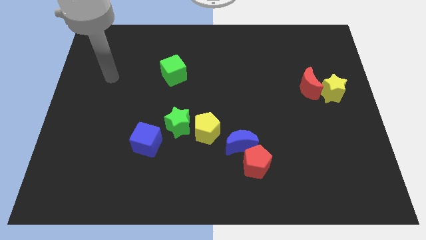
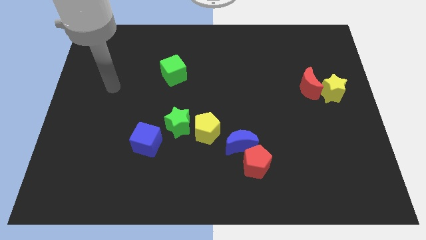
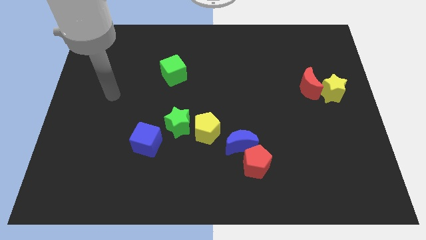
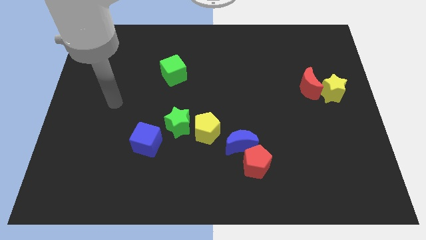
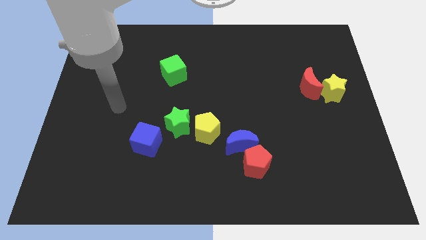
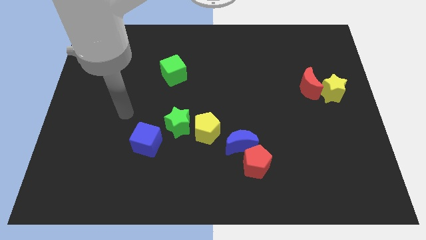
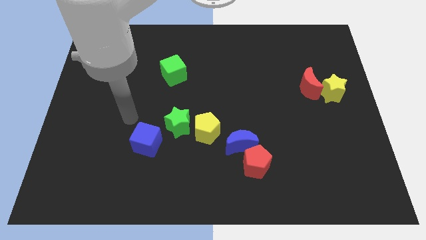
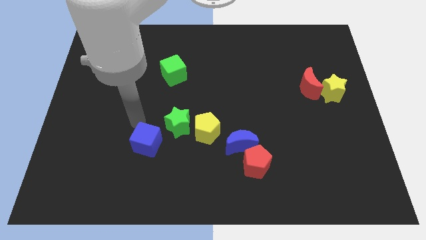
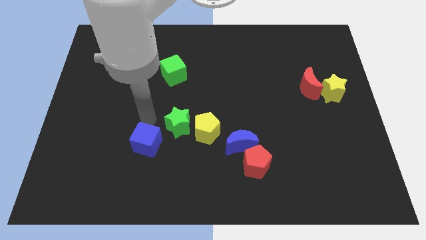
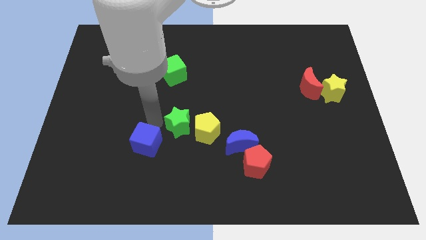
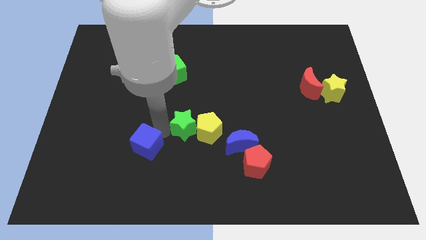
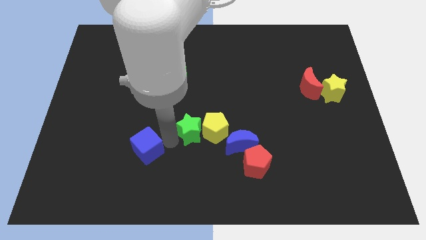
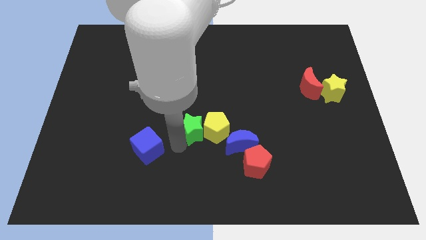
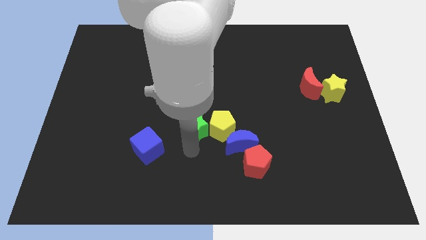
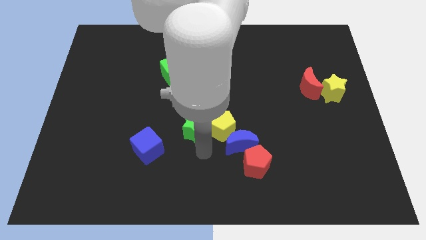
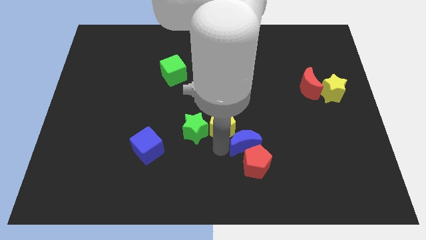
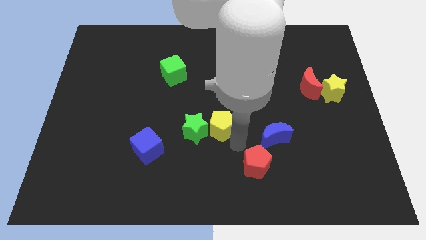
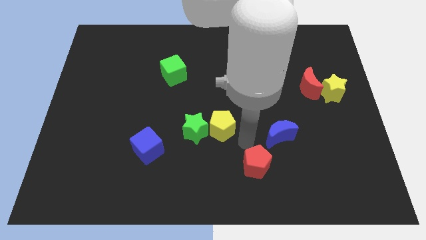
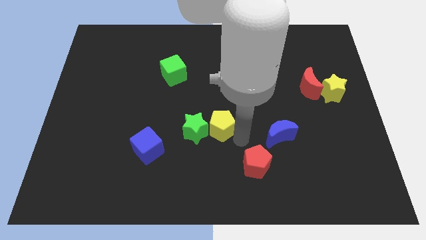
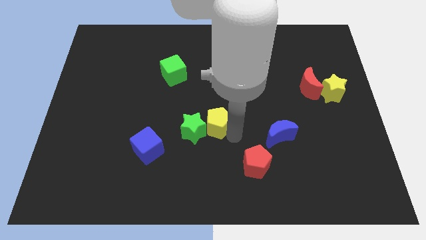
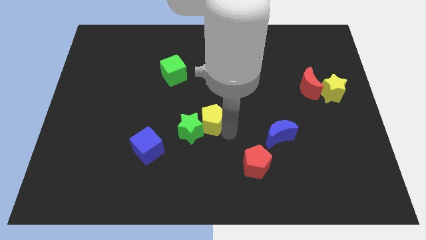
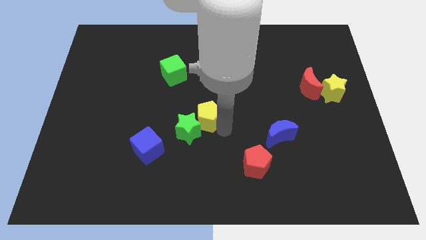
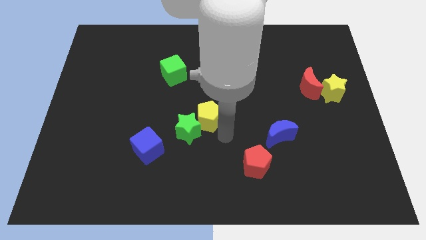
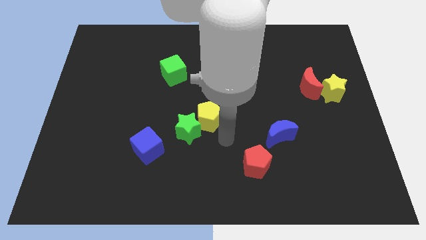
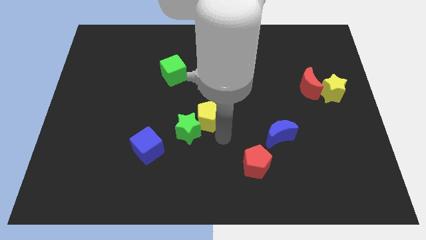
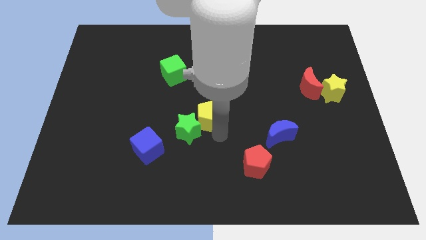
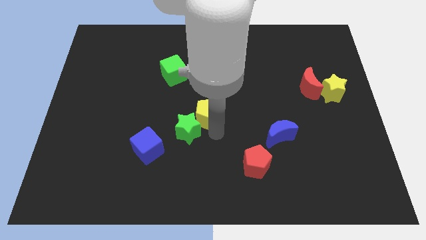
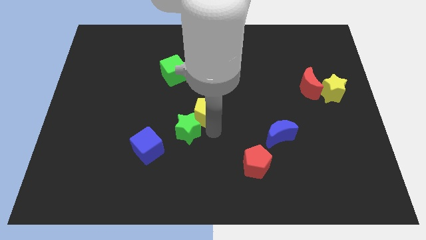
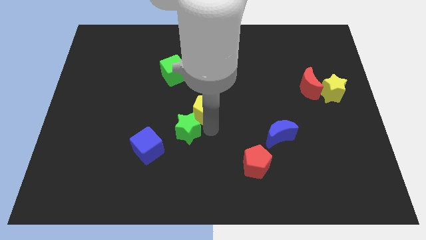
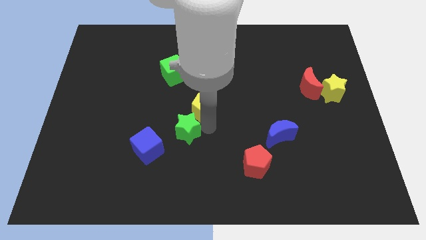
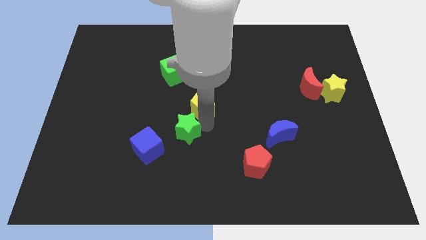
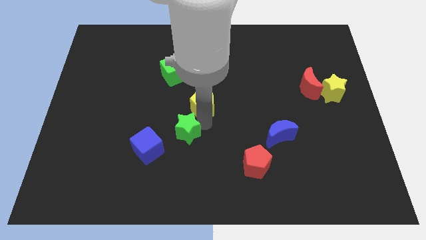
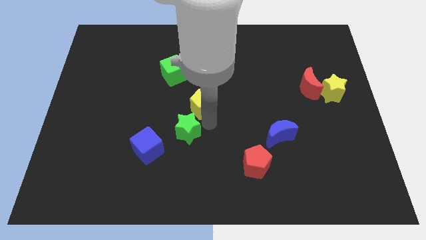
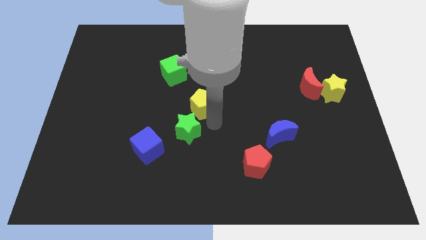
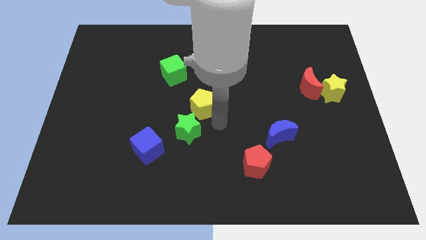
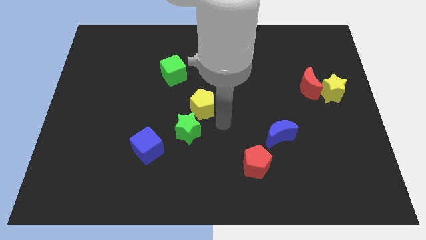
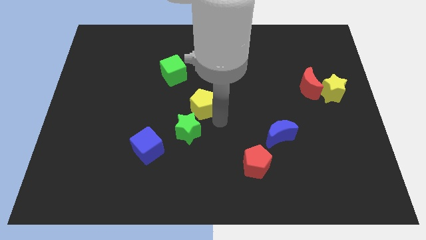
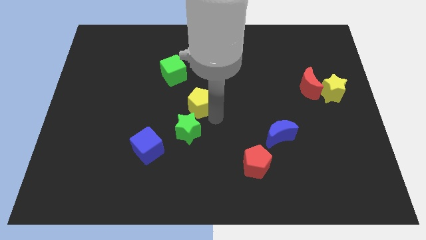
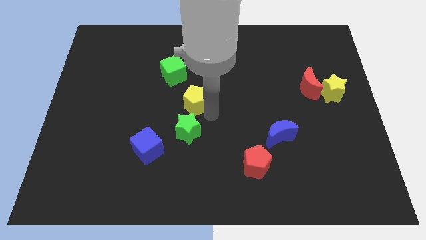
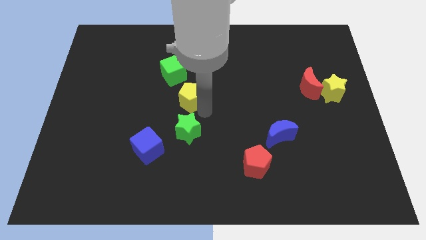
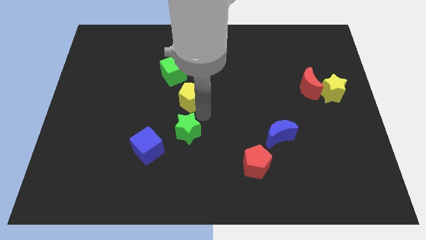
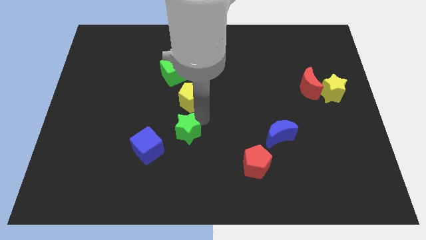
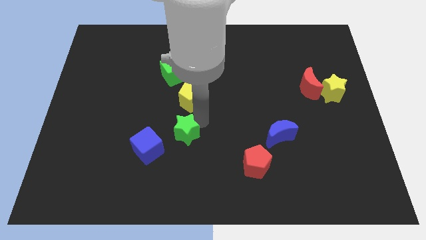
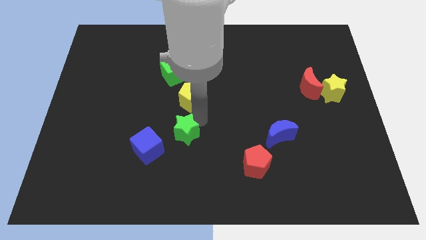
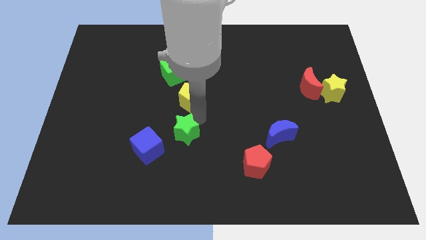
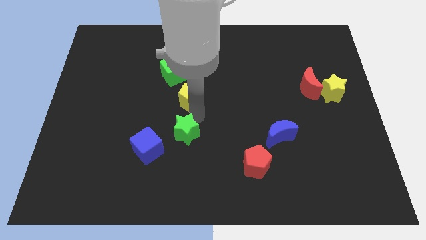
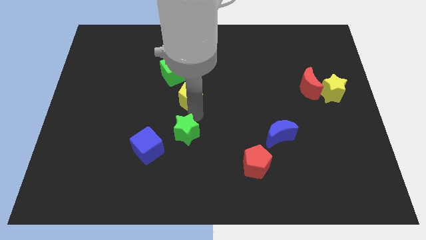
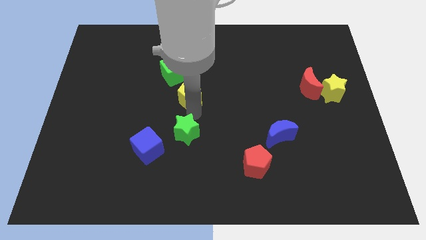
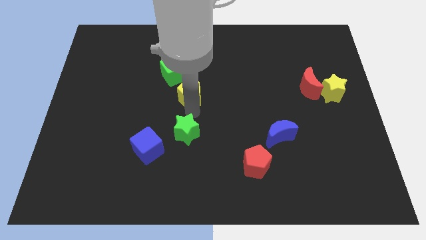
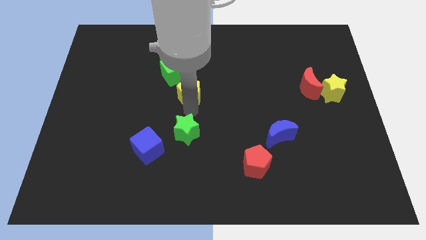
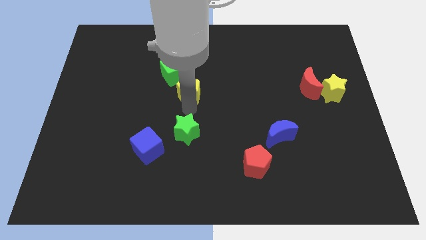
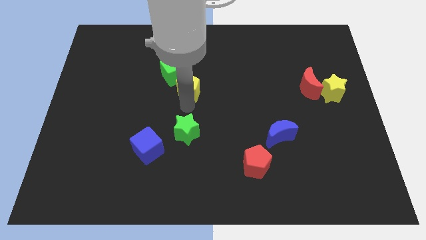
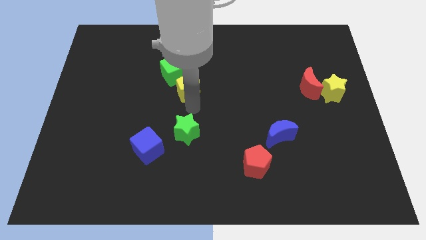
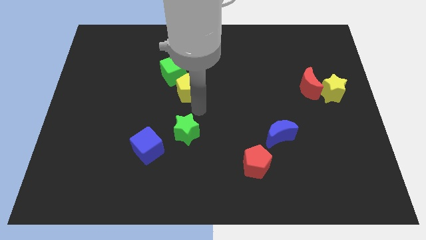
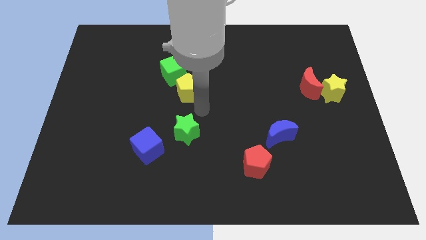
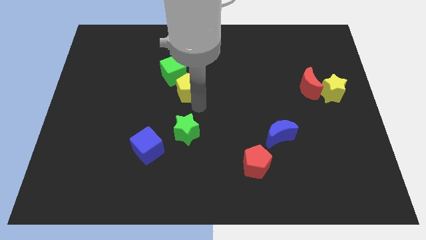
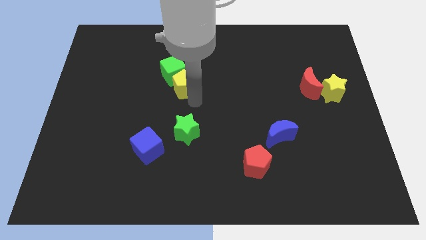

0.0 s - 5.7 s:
move the yellow pentagon to the green cube

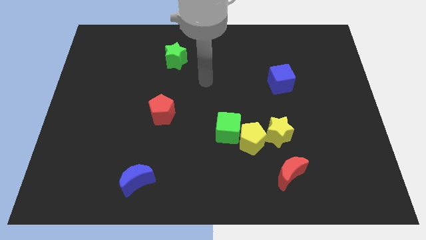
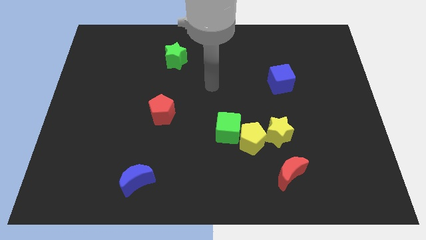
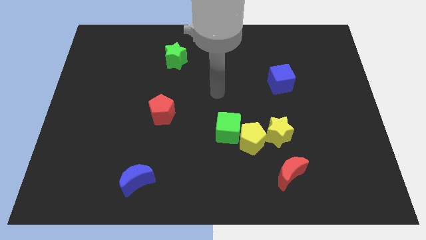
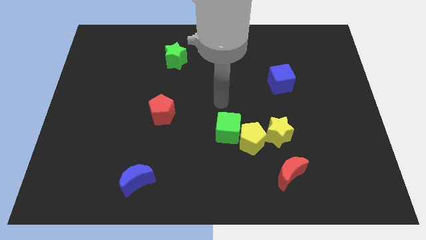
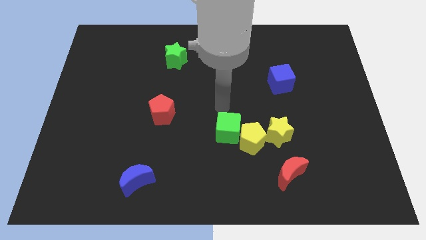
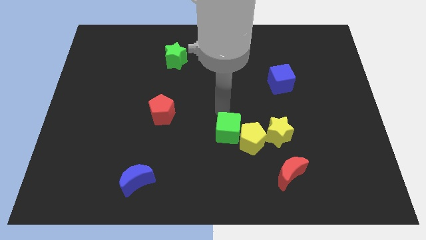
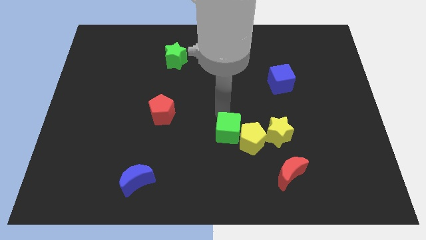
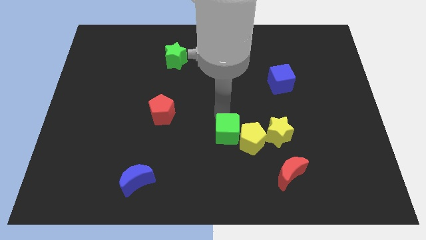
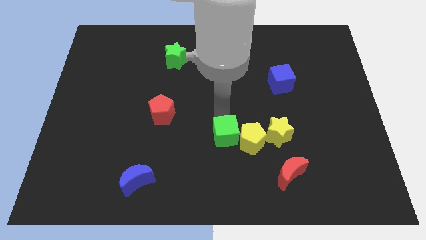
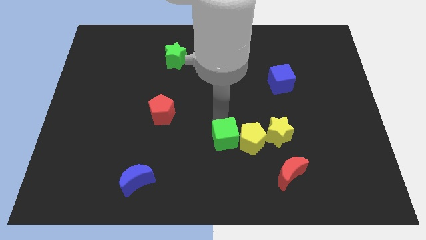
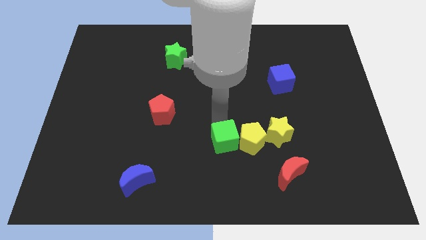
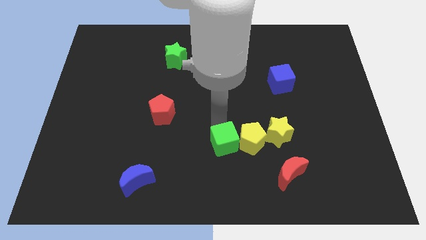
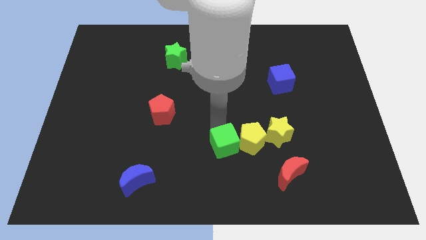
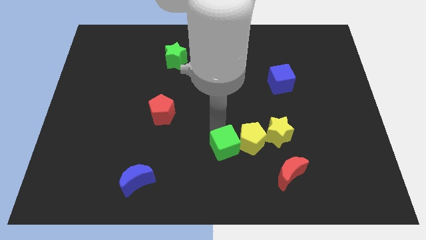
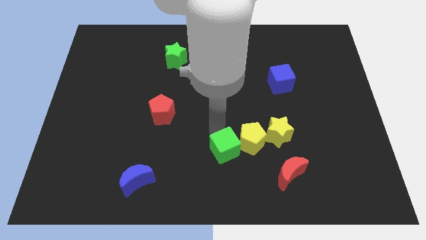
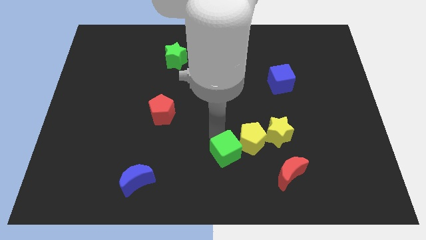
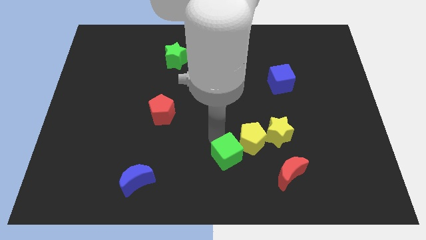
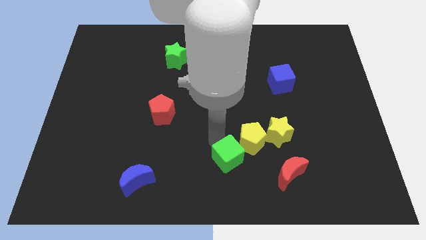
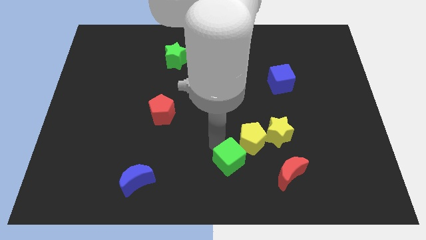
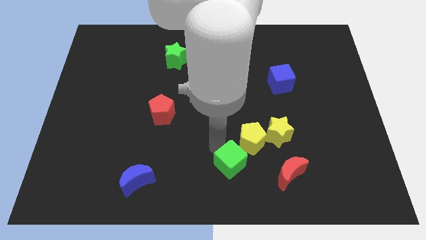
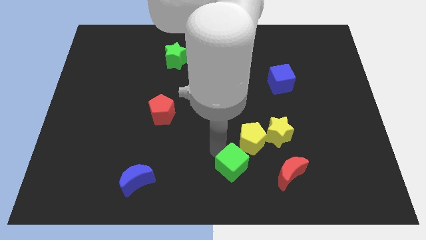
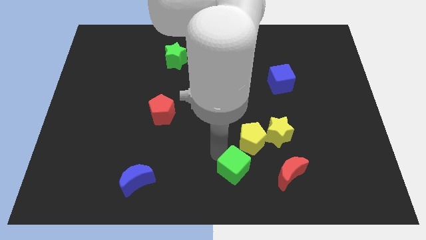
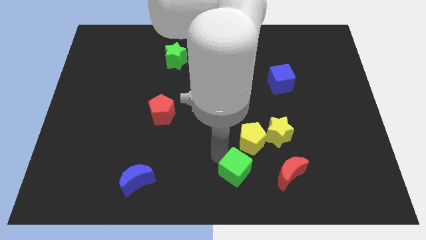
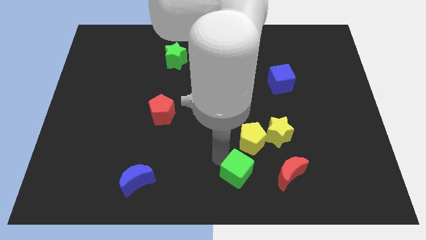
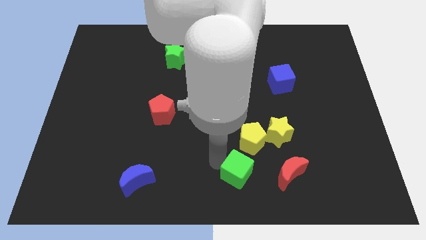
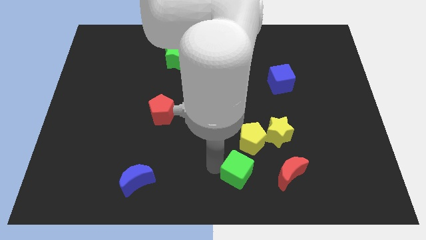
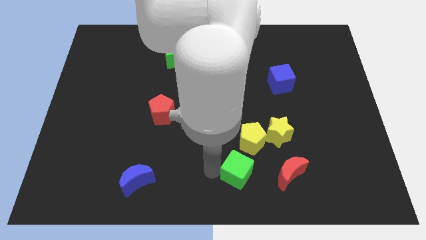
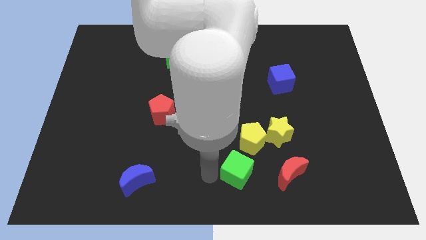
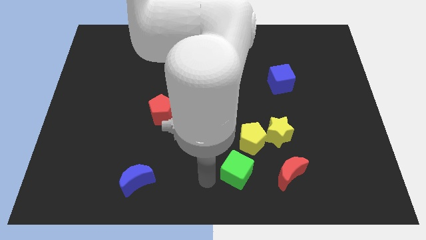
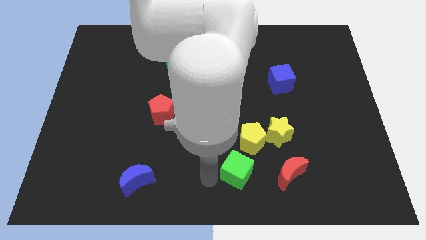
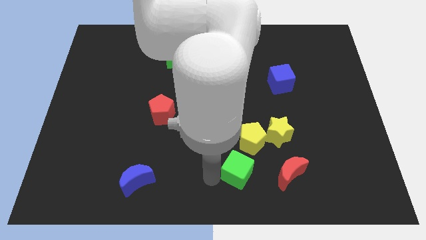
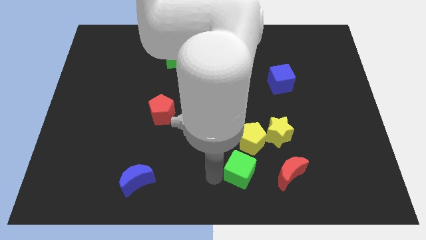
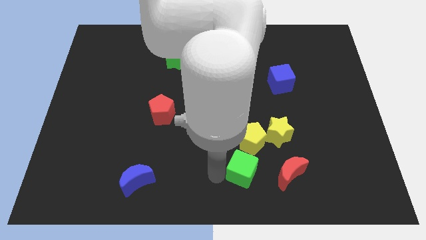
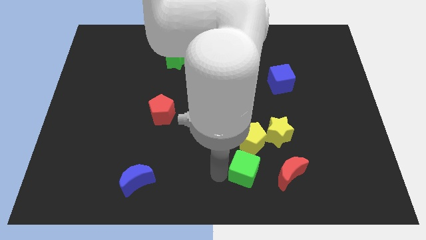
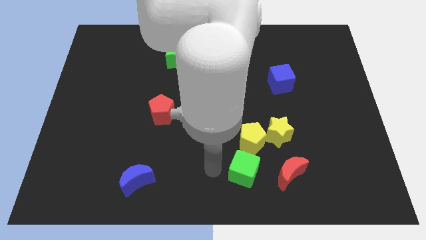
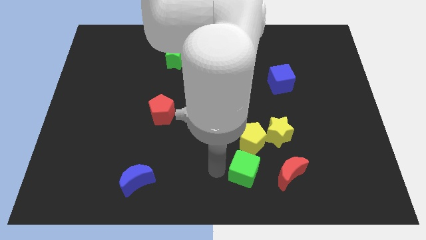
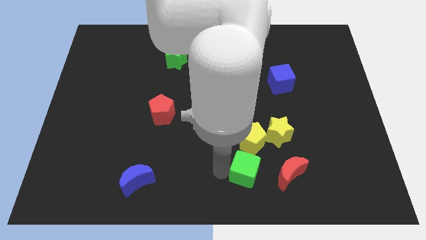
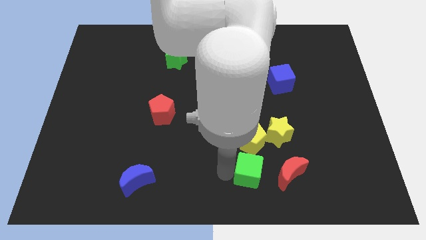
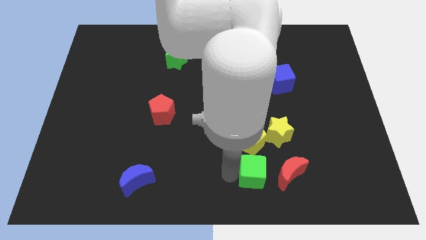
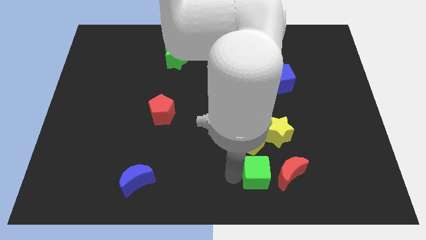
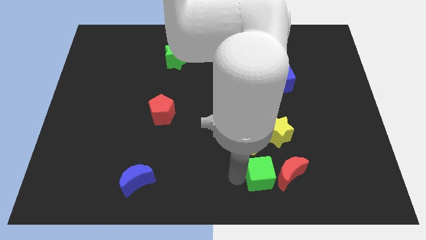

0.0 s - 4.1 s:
push the green cube close to the red moon
